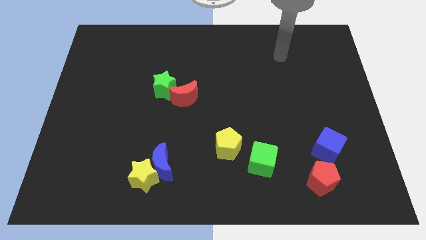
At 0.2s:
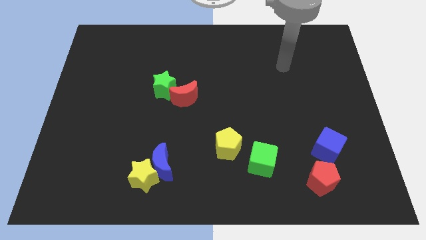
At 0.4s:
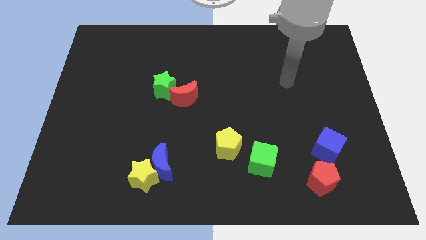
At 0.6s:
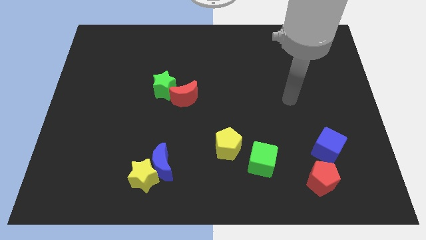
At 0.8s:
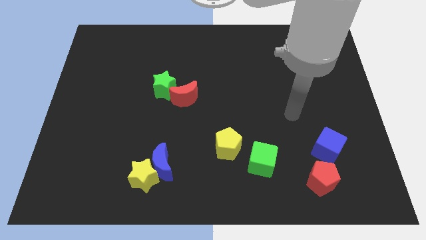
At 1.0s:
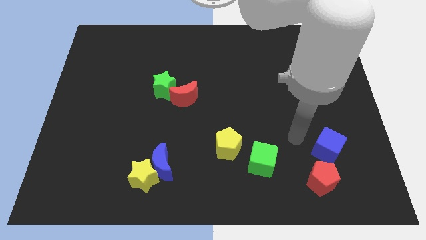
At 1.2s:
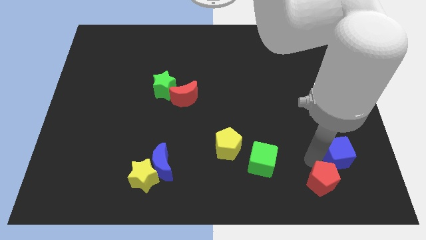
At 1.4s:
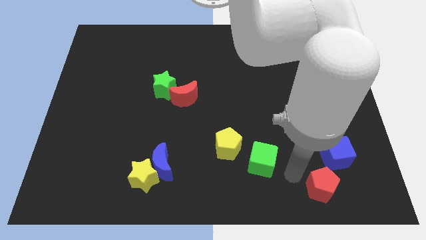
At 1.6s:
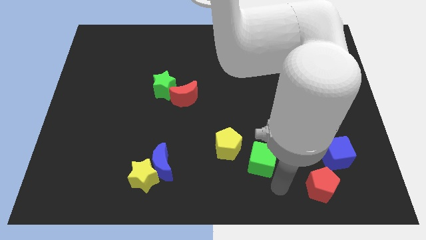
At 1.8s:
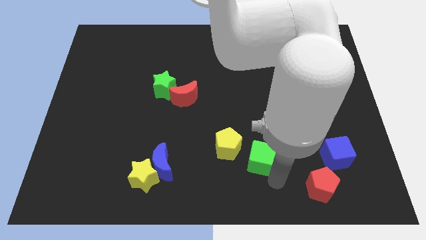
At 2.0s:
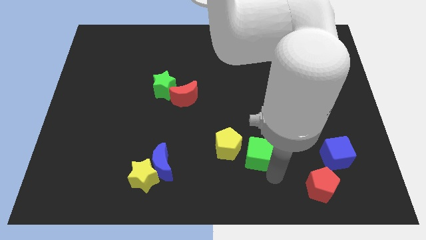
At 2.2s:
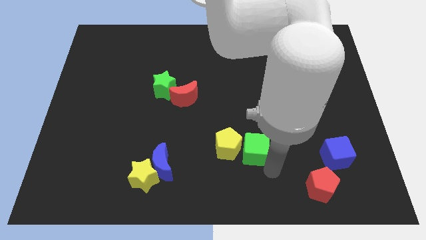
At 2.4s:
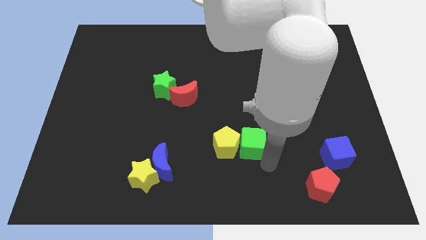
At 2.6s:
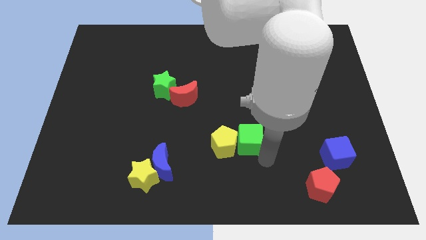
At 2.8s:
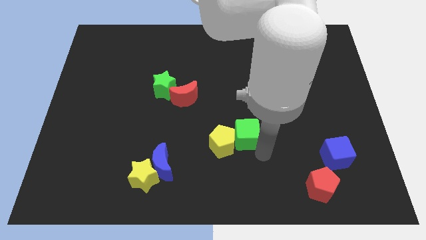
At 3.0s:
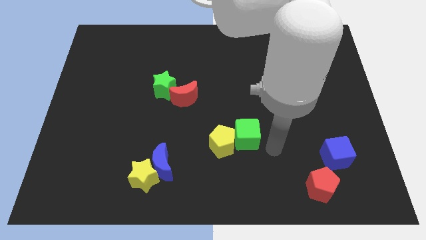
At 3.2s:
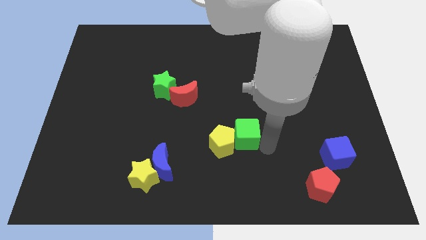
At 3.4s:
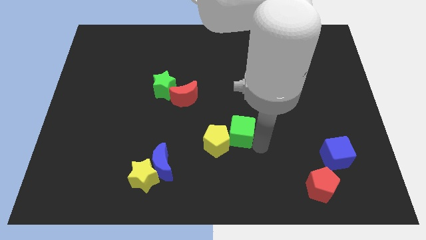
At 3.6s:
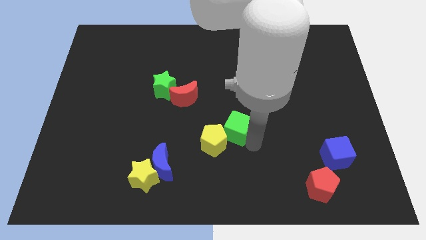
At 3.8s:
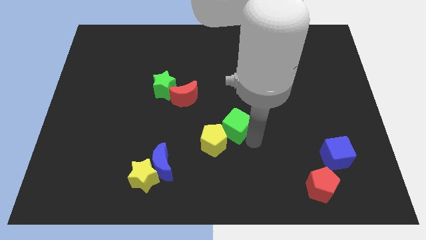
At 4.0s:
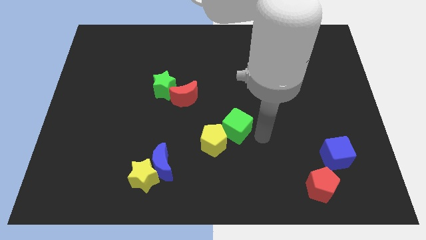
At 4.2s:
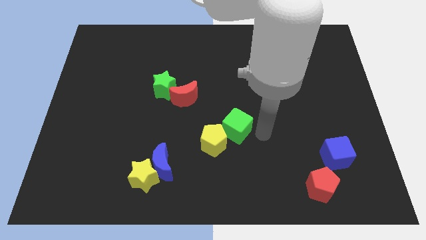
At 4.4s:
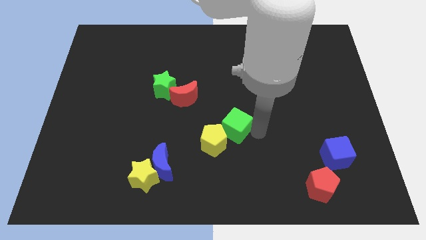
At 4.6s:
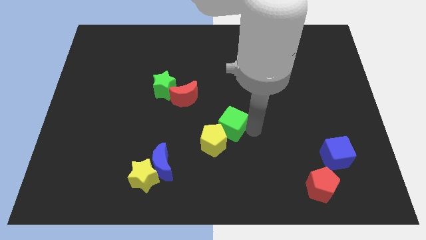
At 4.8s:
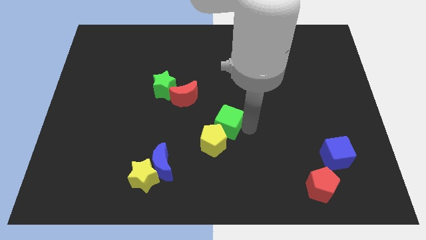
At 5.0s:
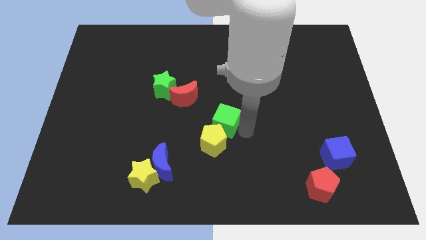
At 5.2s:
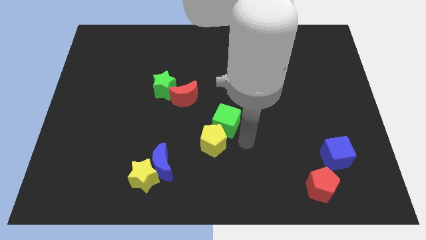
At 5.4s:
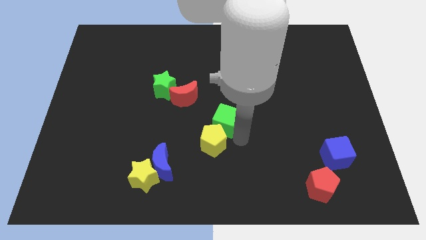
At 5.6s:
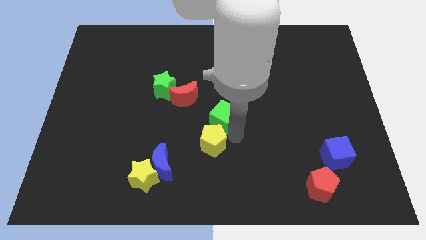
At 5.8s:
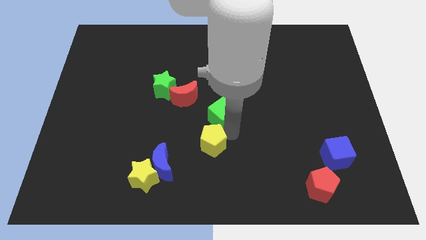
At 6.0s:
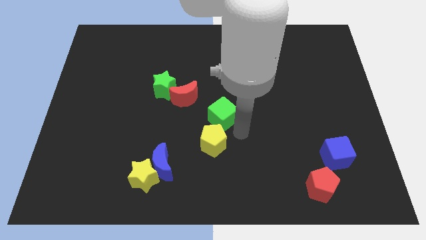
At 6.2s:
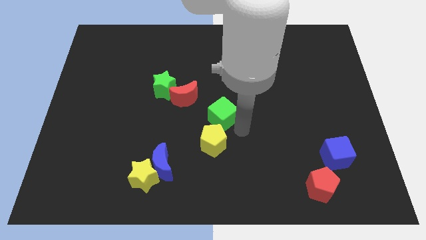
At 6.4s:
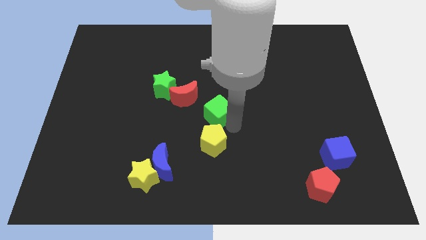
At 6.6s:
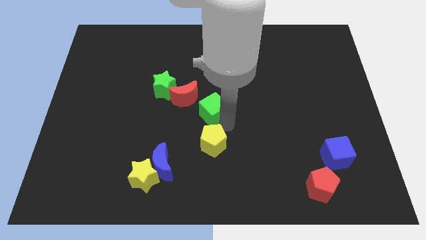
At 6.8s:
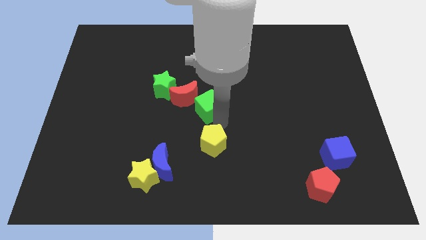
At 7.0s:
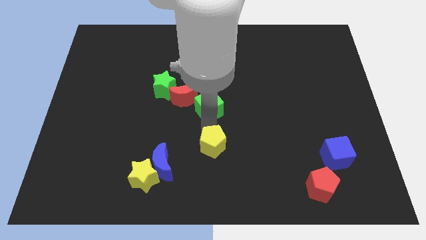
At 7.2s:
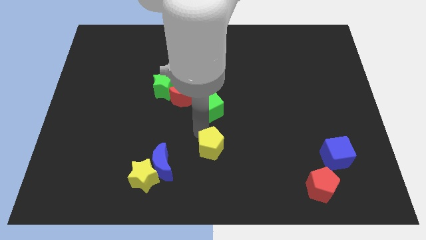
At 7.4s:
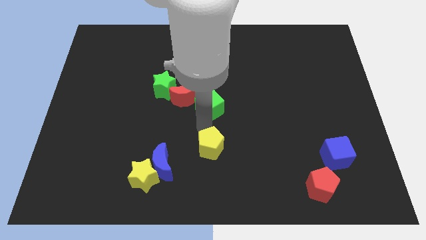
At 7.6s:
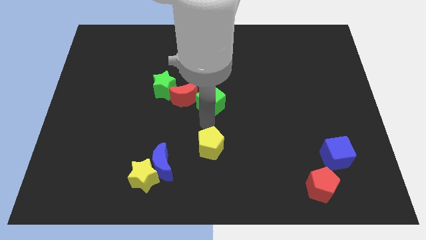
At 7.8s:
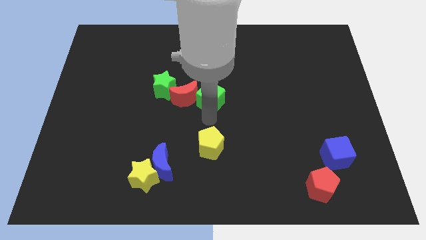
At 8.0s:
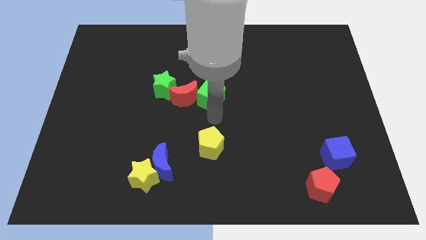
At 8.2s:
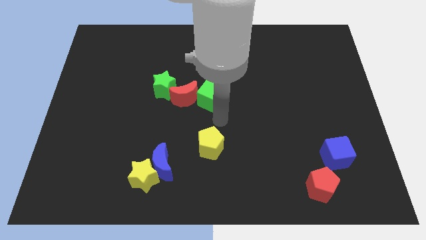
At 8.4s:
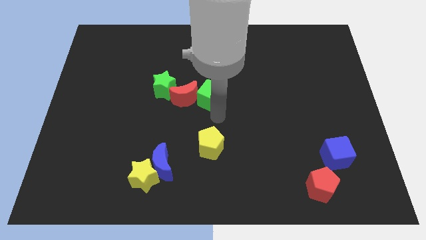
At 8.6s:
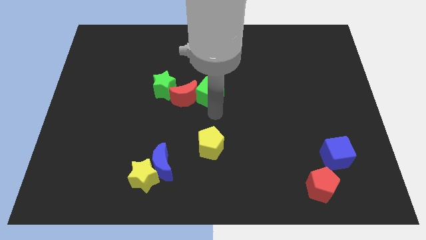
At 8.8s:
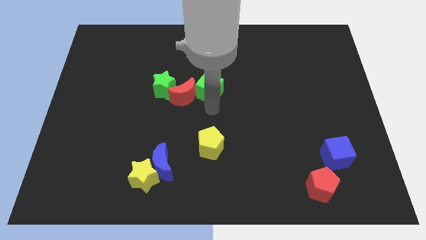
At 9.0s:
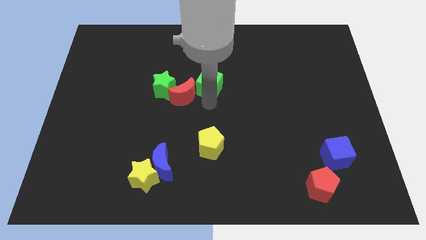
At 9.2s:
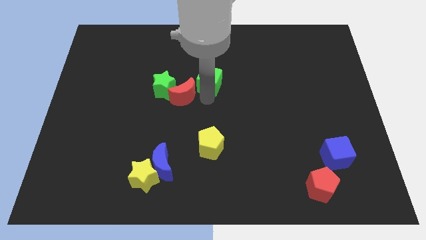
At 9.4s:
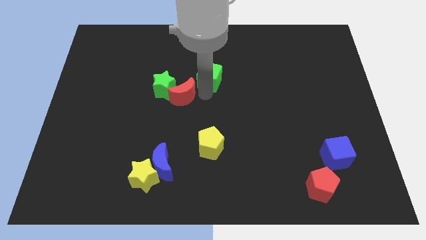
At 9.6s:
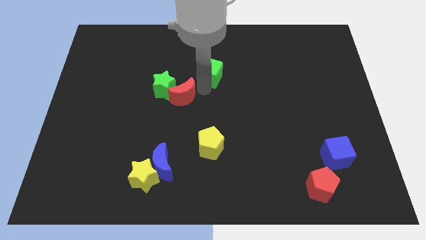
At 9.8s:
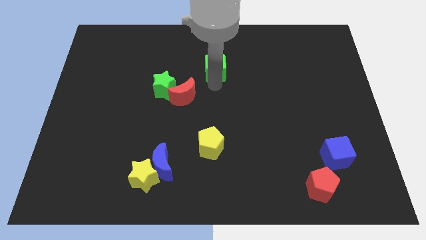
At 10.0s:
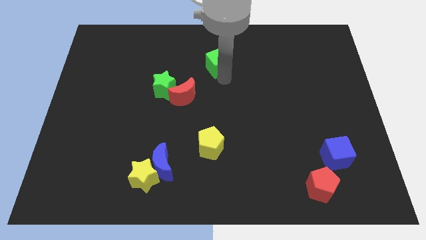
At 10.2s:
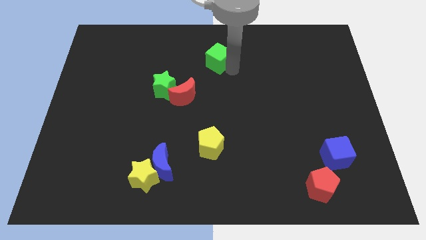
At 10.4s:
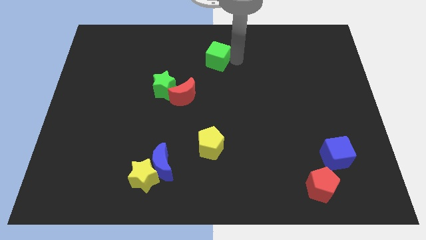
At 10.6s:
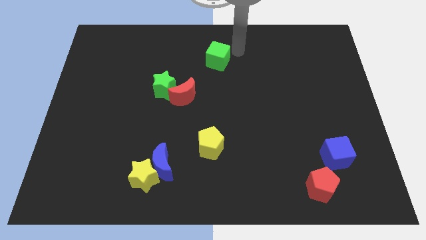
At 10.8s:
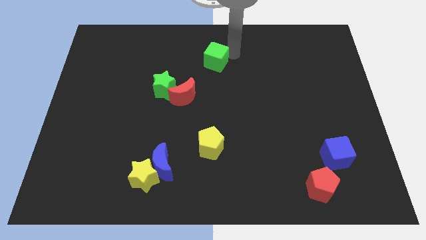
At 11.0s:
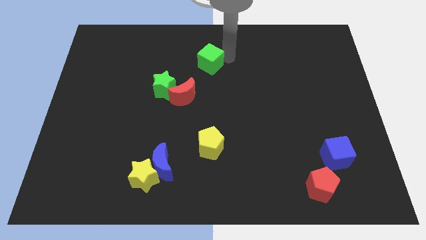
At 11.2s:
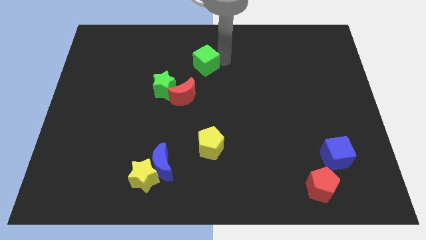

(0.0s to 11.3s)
slide the green cube to the top right side of the green star

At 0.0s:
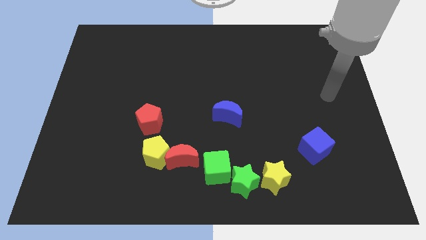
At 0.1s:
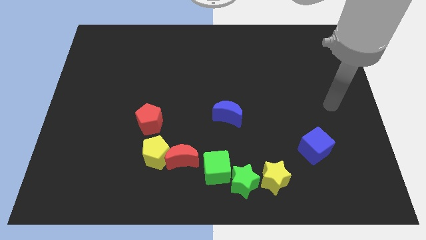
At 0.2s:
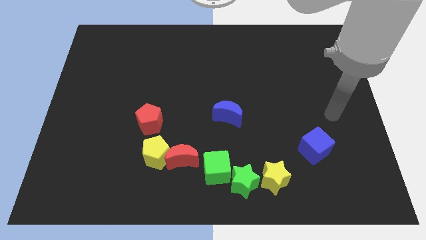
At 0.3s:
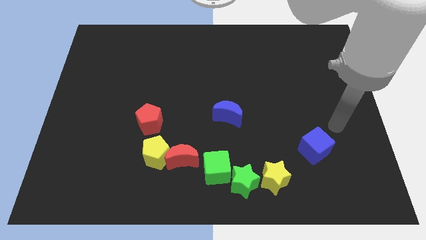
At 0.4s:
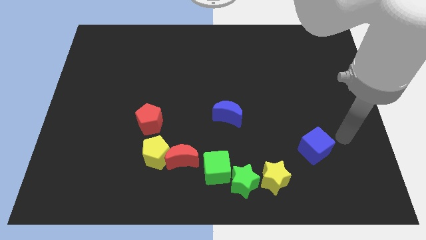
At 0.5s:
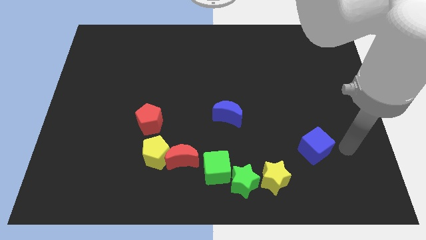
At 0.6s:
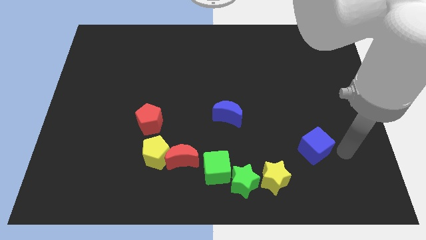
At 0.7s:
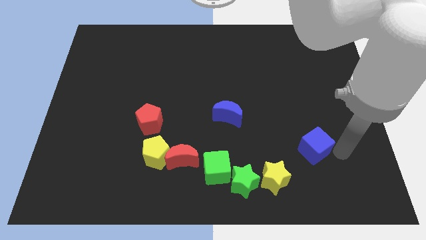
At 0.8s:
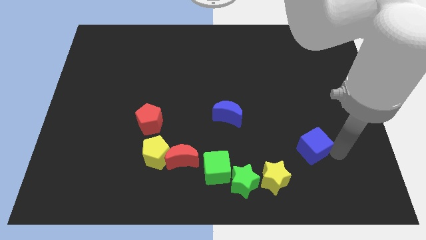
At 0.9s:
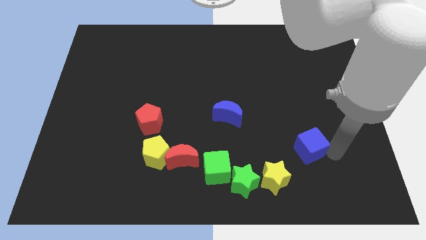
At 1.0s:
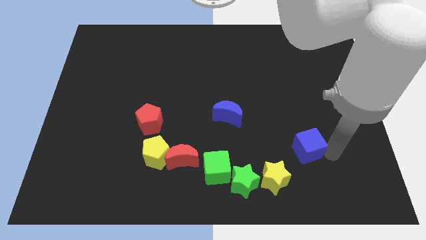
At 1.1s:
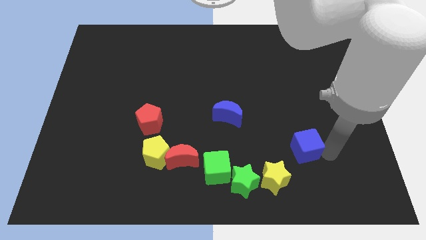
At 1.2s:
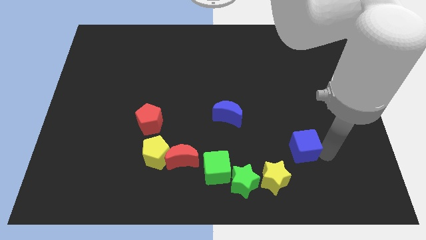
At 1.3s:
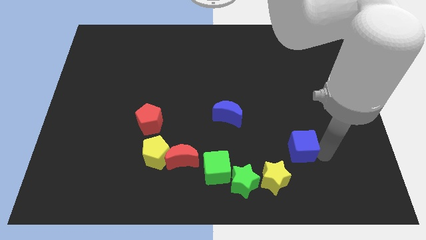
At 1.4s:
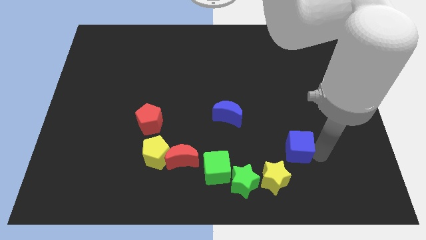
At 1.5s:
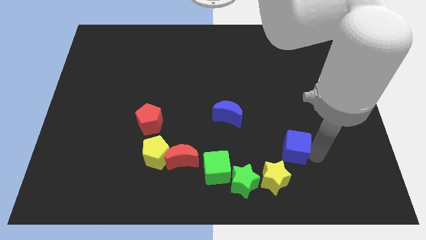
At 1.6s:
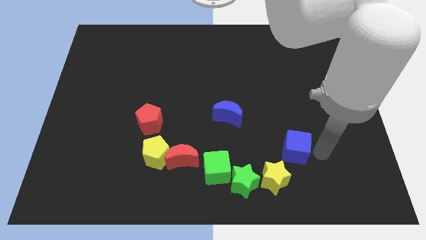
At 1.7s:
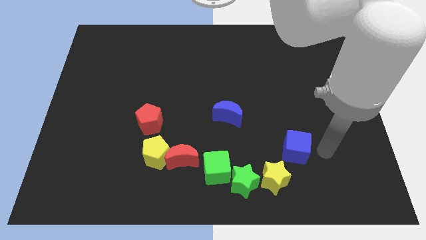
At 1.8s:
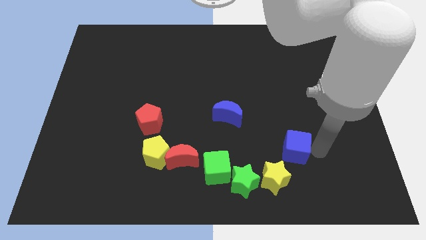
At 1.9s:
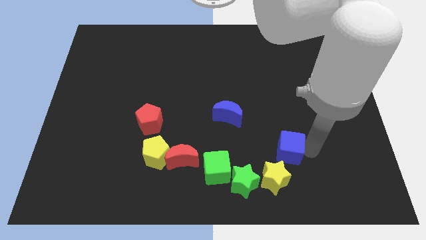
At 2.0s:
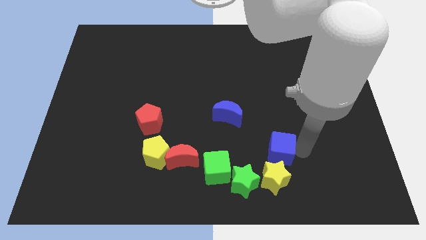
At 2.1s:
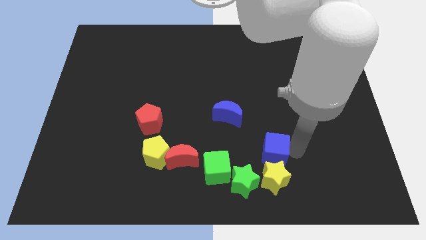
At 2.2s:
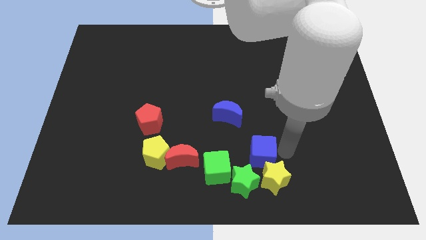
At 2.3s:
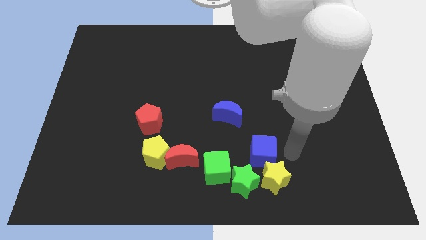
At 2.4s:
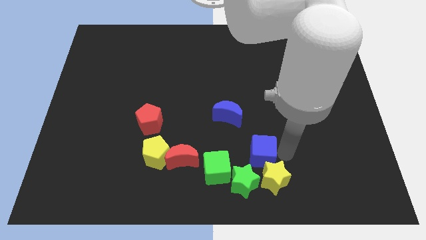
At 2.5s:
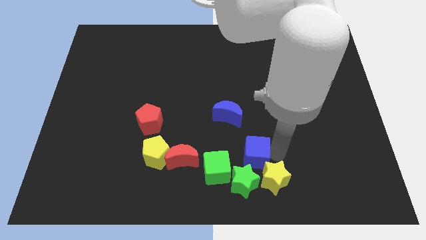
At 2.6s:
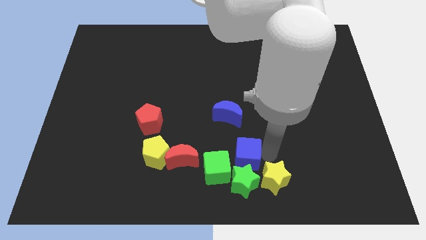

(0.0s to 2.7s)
push the blue cube to the bottom side of the blue moon
